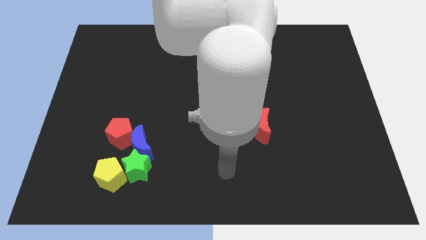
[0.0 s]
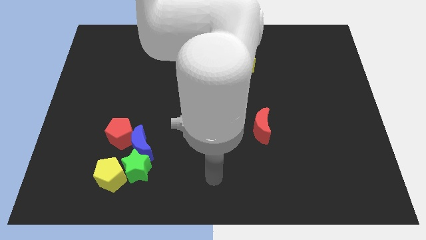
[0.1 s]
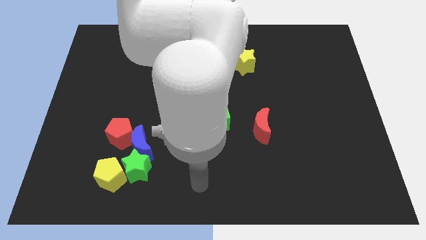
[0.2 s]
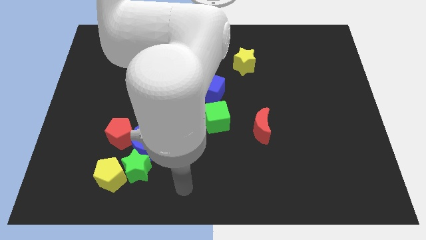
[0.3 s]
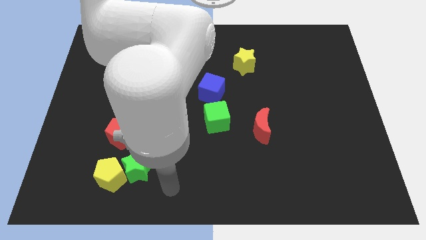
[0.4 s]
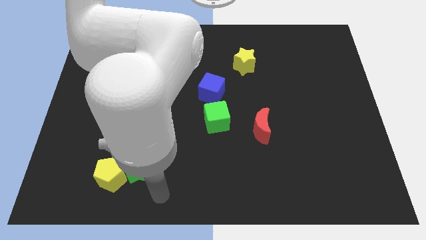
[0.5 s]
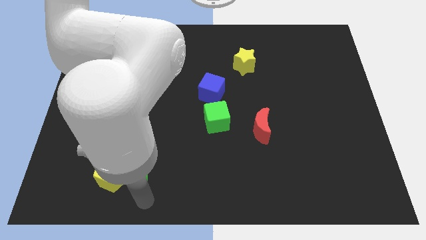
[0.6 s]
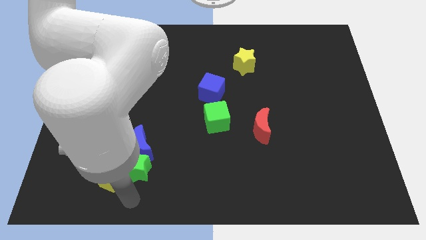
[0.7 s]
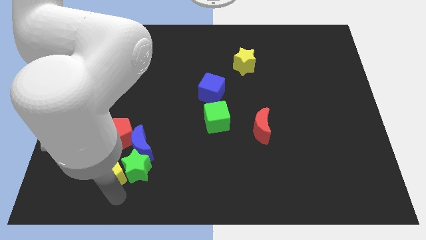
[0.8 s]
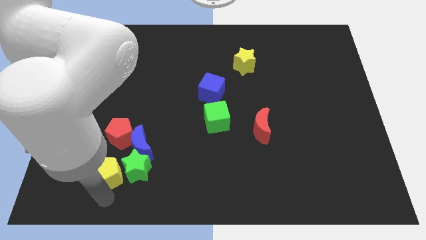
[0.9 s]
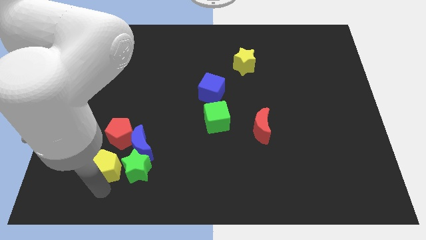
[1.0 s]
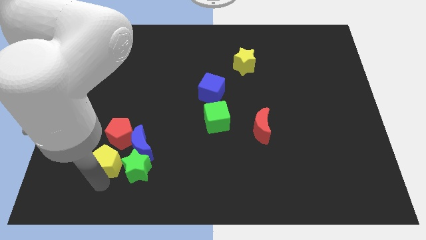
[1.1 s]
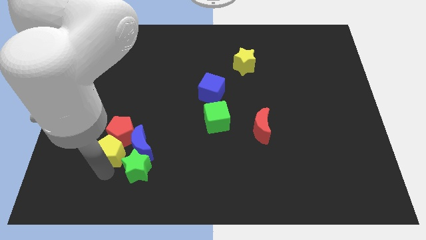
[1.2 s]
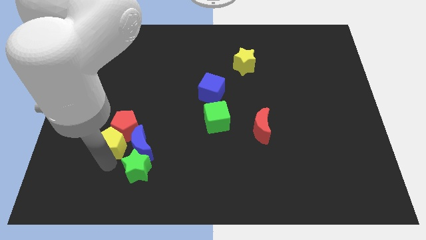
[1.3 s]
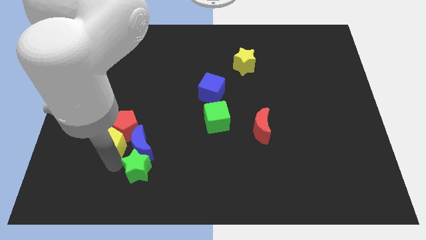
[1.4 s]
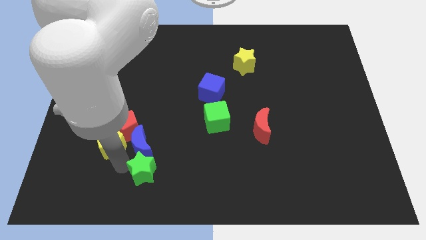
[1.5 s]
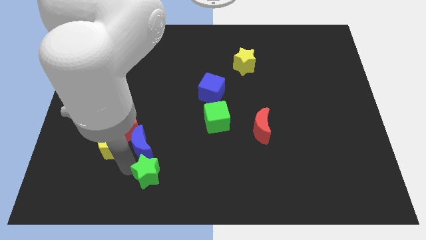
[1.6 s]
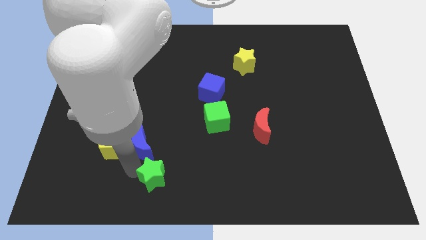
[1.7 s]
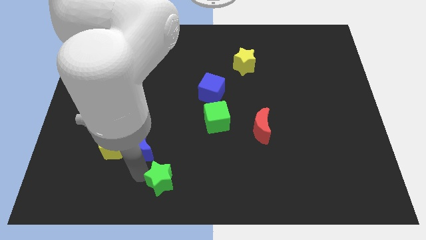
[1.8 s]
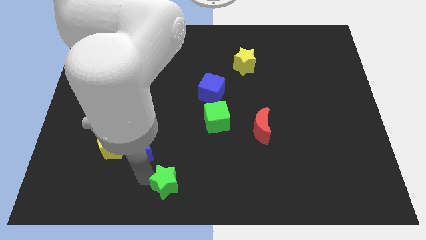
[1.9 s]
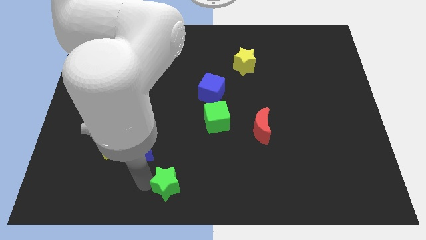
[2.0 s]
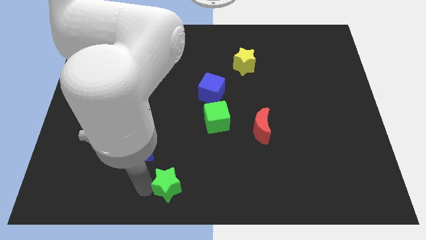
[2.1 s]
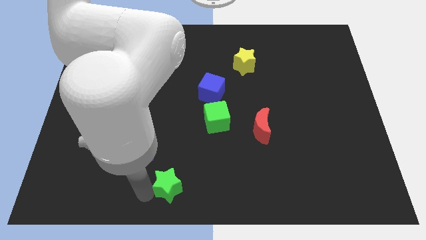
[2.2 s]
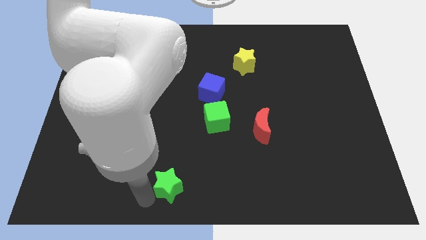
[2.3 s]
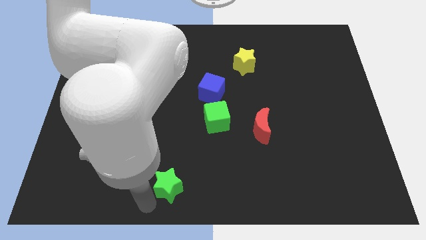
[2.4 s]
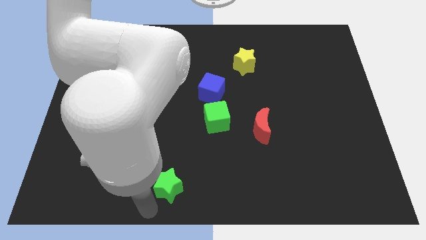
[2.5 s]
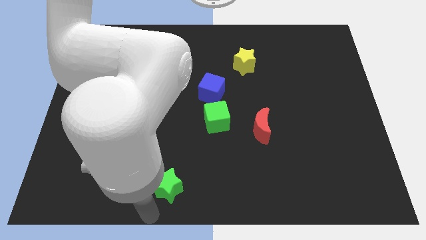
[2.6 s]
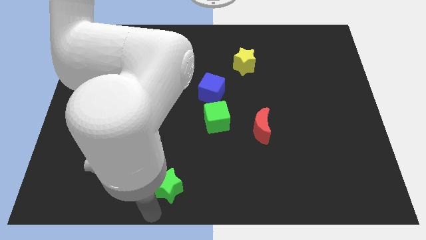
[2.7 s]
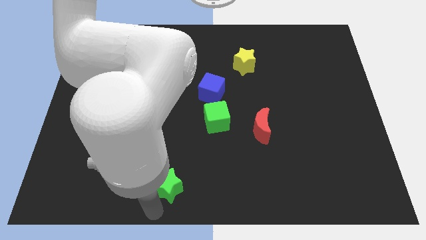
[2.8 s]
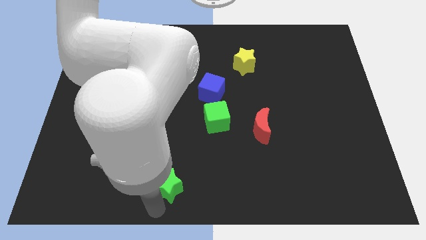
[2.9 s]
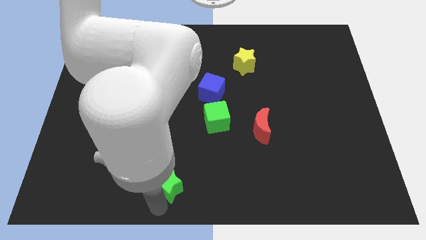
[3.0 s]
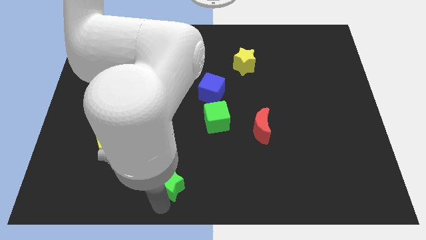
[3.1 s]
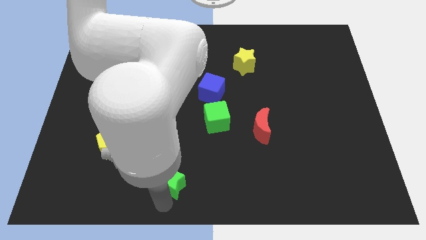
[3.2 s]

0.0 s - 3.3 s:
push the green star slightly right

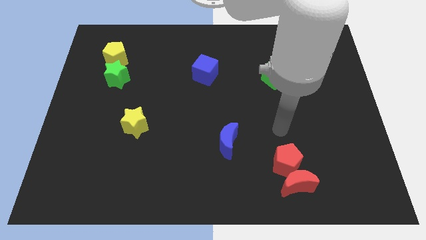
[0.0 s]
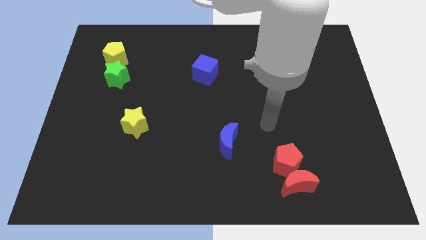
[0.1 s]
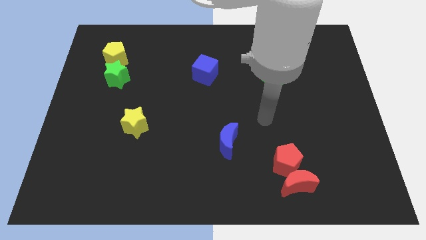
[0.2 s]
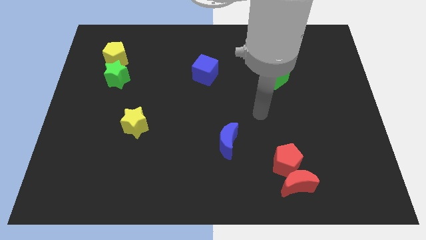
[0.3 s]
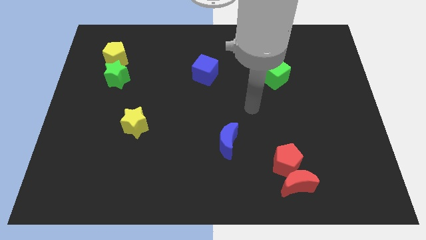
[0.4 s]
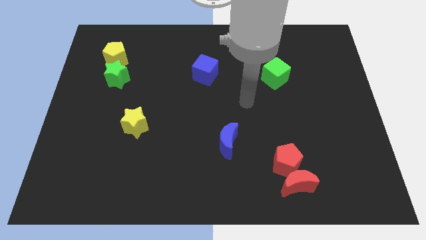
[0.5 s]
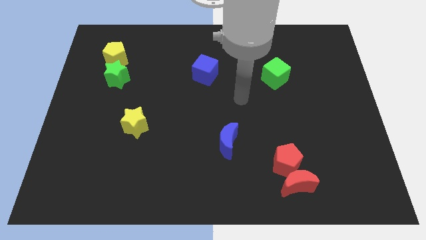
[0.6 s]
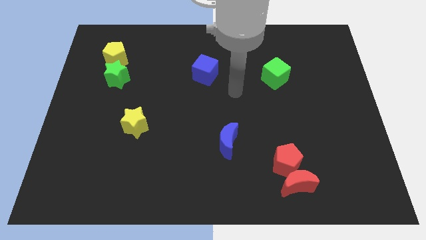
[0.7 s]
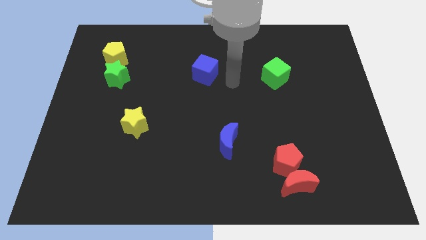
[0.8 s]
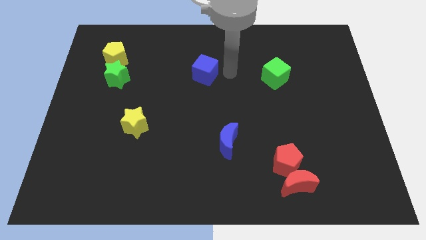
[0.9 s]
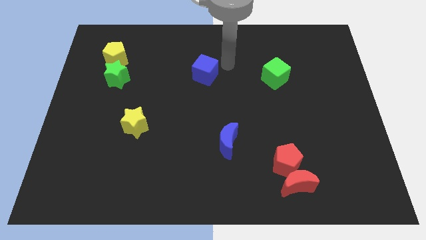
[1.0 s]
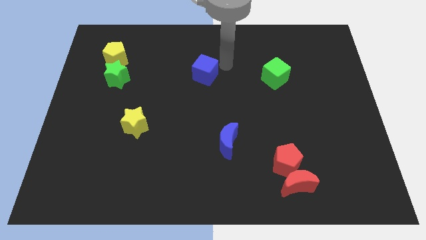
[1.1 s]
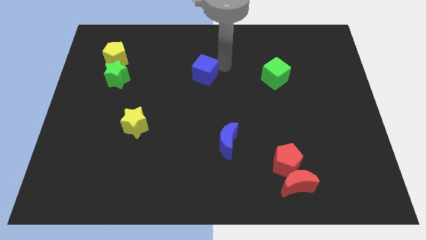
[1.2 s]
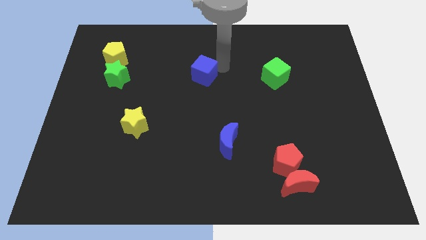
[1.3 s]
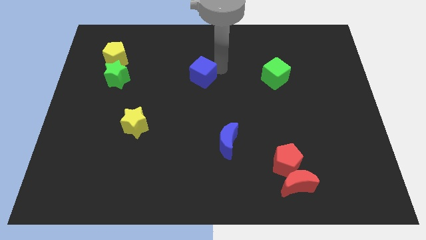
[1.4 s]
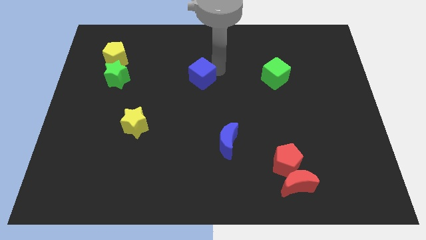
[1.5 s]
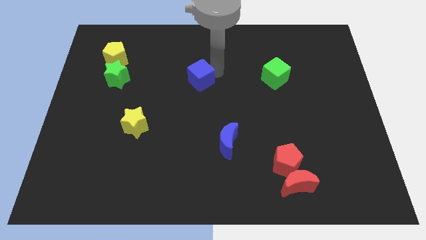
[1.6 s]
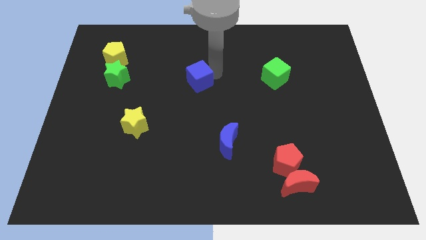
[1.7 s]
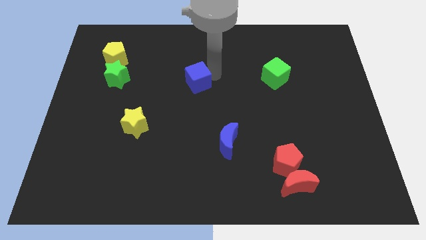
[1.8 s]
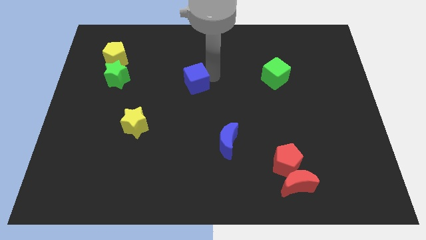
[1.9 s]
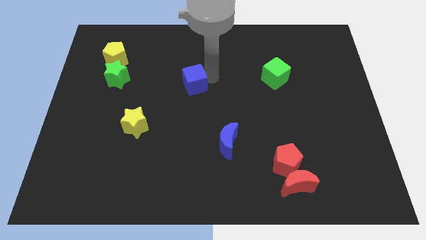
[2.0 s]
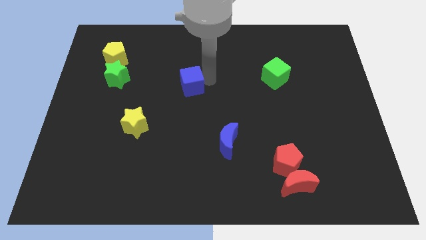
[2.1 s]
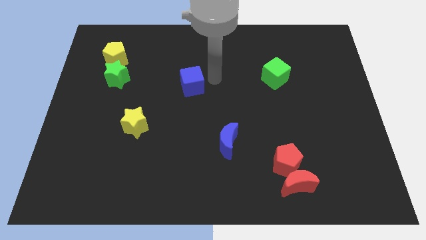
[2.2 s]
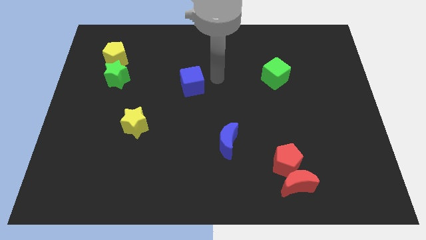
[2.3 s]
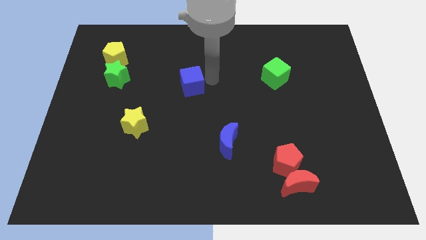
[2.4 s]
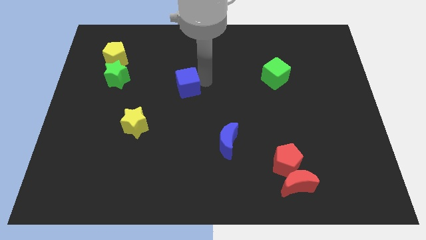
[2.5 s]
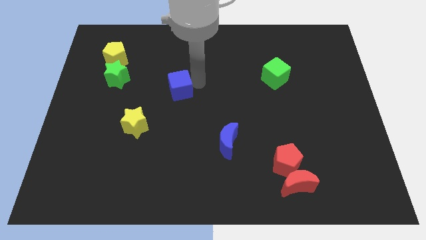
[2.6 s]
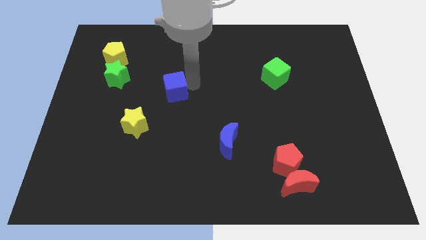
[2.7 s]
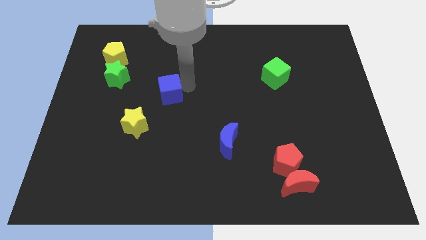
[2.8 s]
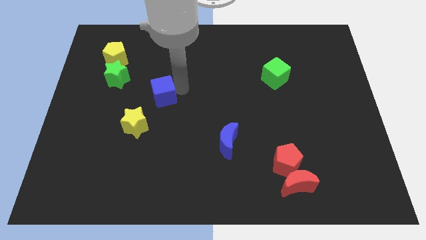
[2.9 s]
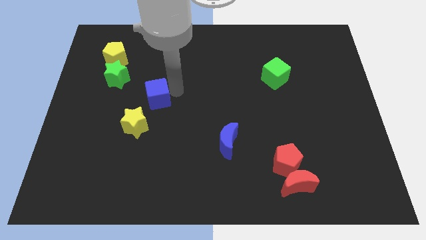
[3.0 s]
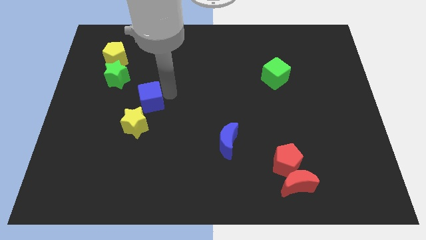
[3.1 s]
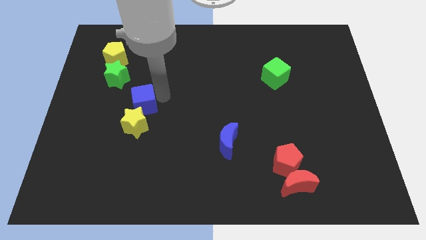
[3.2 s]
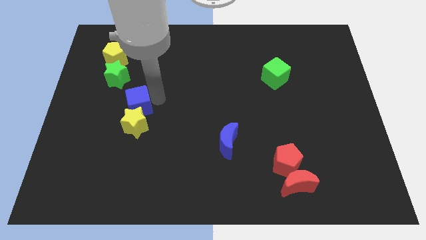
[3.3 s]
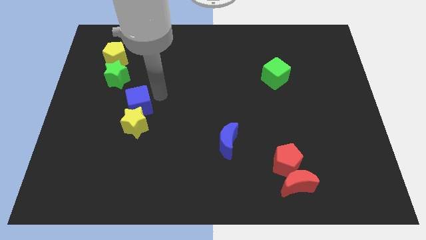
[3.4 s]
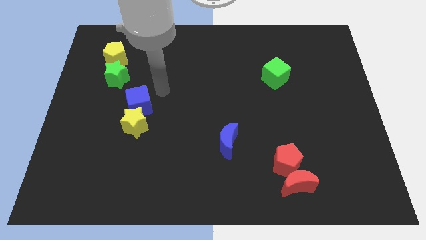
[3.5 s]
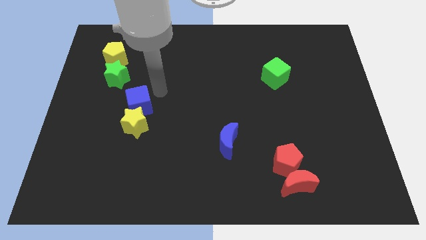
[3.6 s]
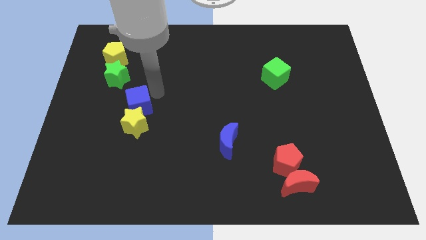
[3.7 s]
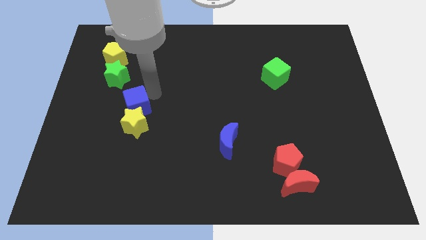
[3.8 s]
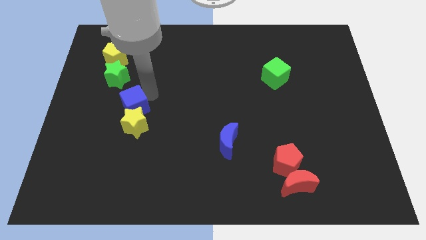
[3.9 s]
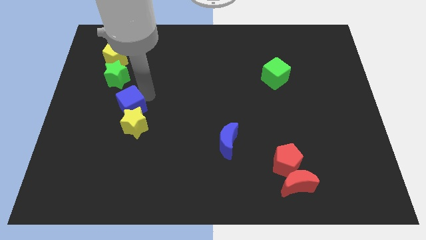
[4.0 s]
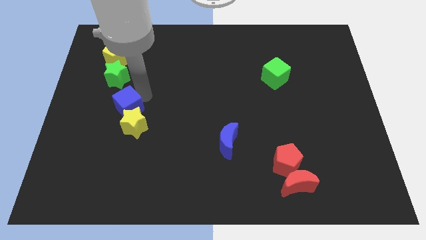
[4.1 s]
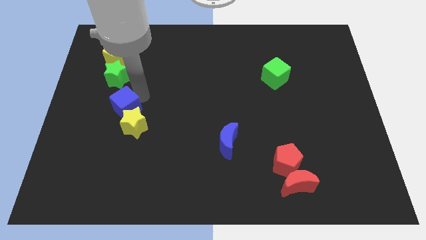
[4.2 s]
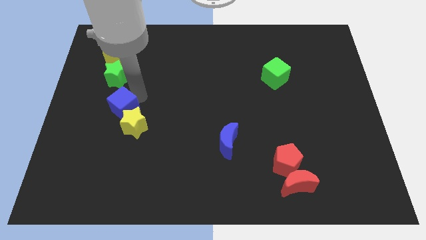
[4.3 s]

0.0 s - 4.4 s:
slide the blue cube down and left diagonally
